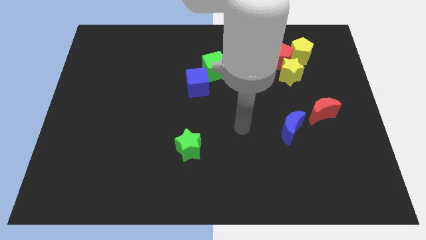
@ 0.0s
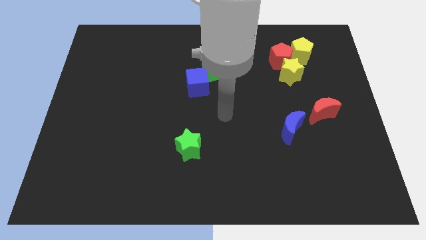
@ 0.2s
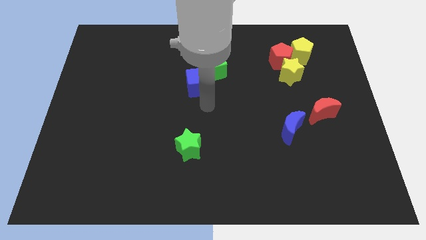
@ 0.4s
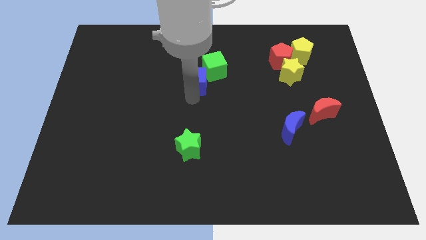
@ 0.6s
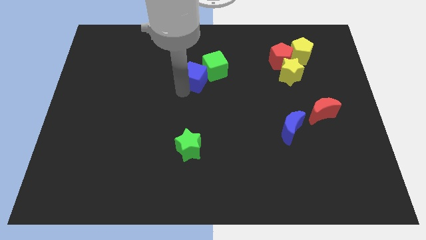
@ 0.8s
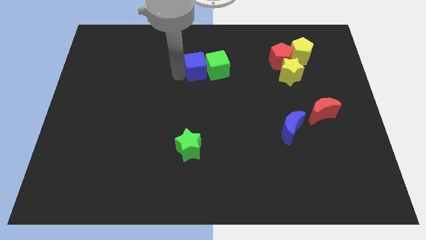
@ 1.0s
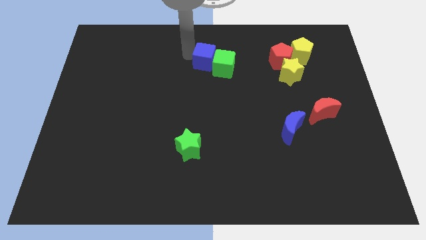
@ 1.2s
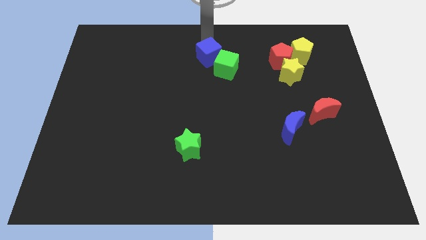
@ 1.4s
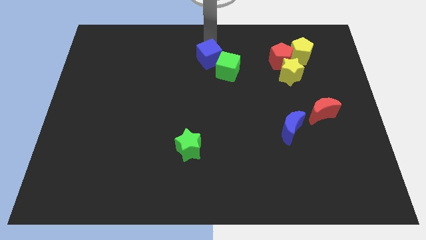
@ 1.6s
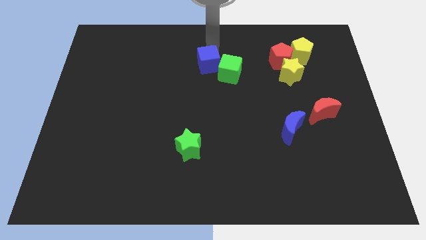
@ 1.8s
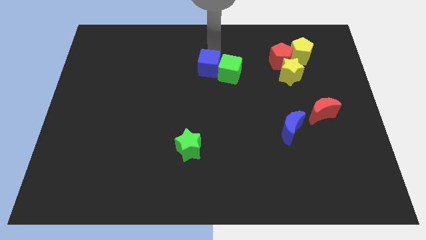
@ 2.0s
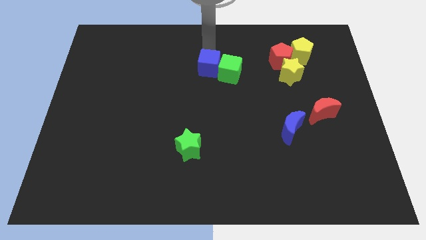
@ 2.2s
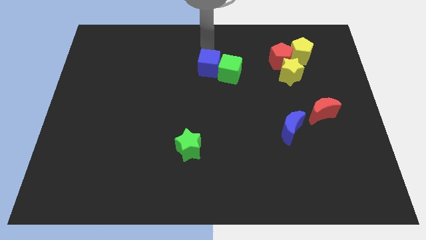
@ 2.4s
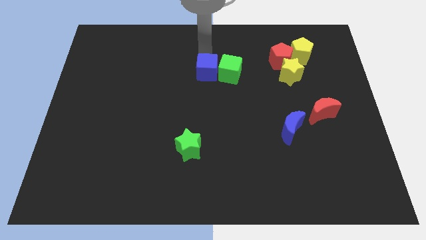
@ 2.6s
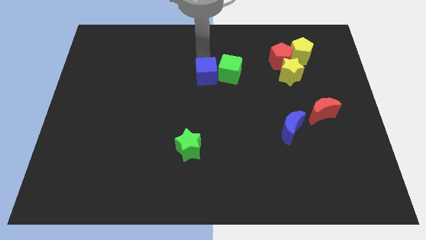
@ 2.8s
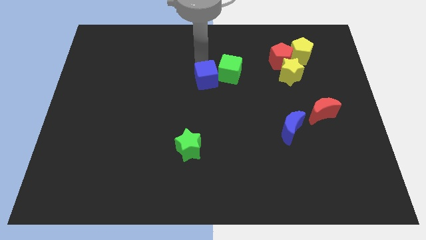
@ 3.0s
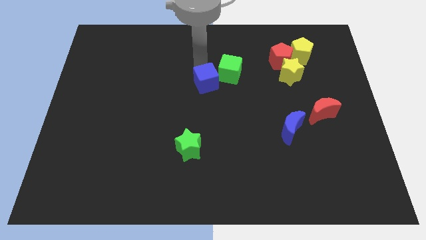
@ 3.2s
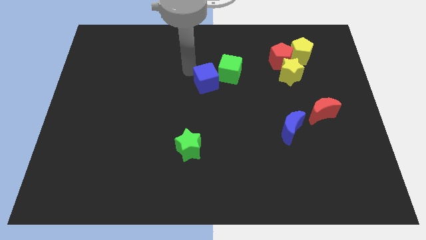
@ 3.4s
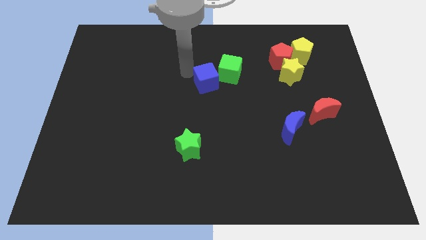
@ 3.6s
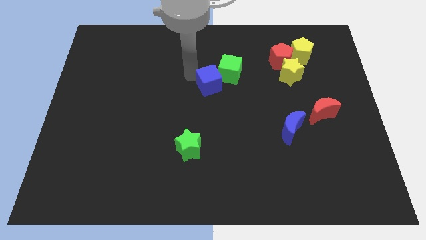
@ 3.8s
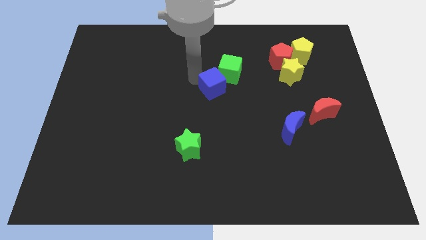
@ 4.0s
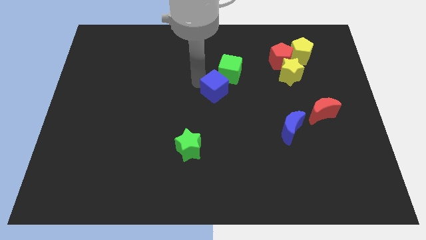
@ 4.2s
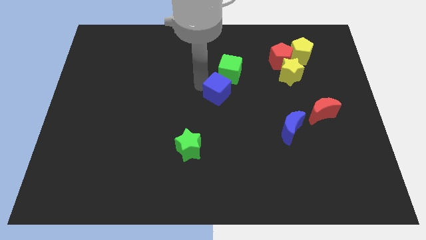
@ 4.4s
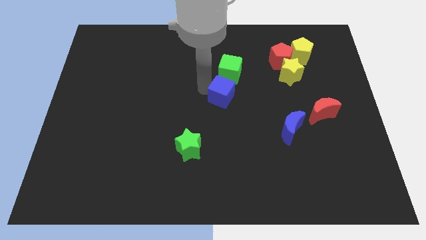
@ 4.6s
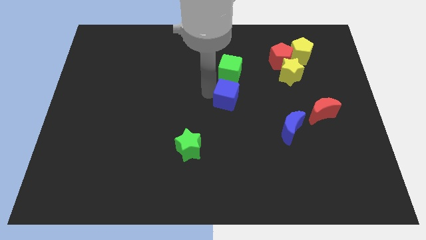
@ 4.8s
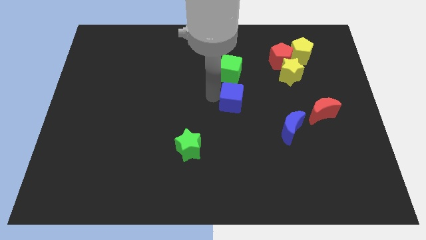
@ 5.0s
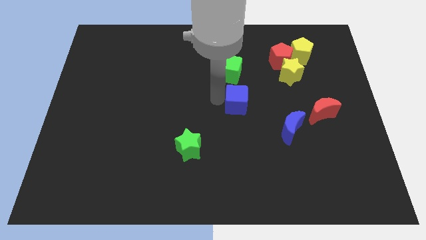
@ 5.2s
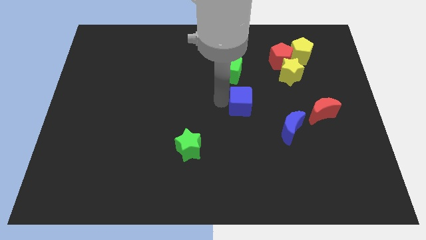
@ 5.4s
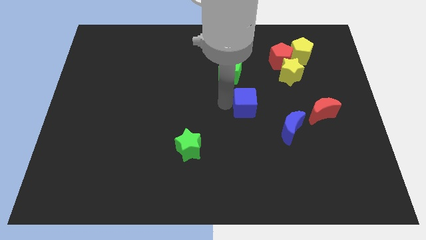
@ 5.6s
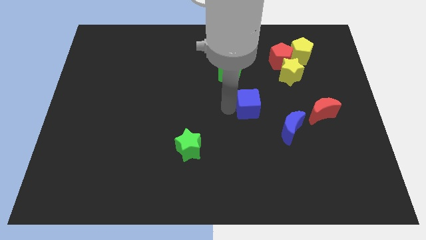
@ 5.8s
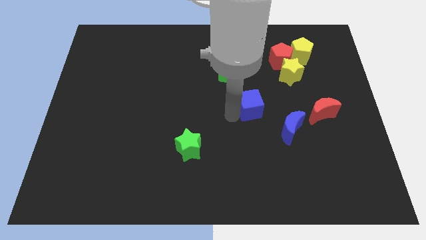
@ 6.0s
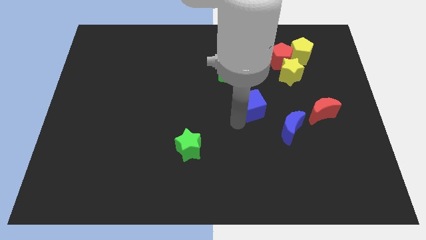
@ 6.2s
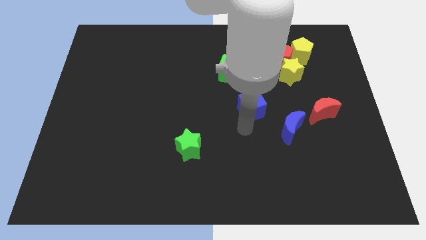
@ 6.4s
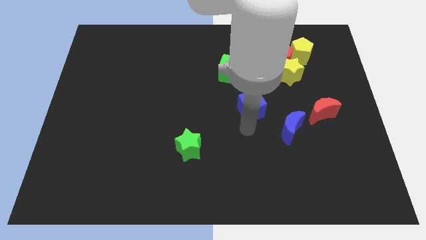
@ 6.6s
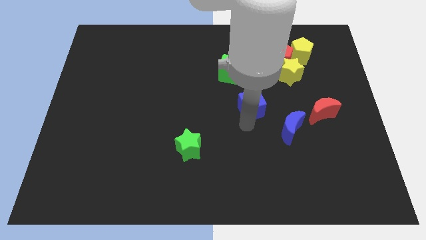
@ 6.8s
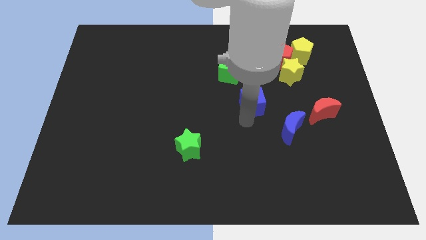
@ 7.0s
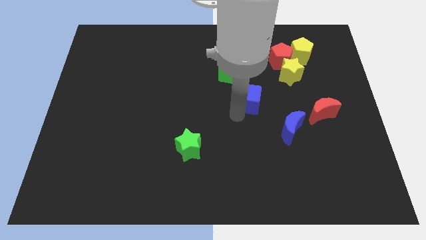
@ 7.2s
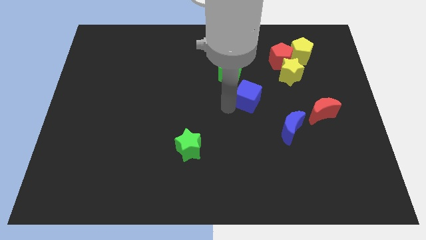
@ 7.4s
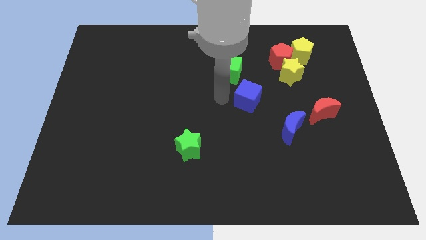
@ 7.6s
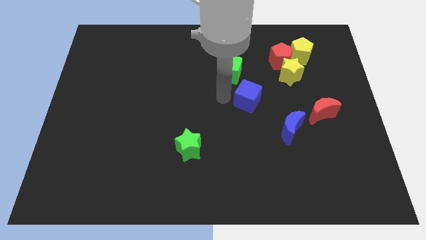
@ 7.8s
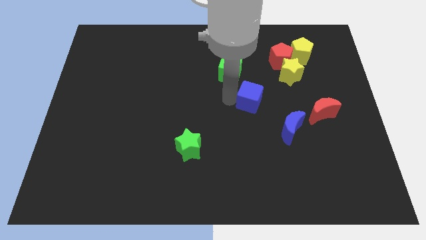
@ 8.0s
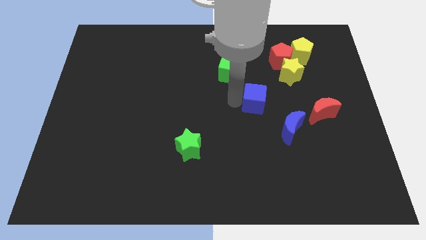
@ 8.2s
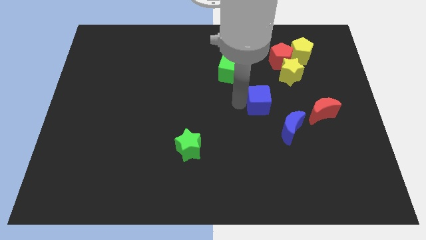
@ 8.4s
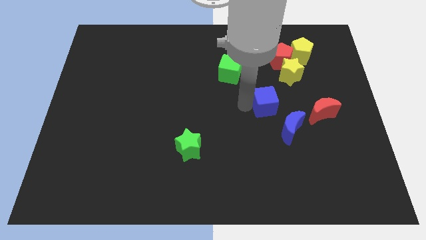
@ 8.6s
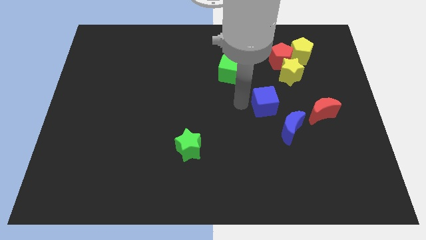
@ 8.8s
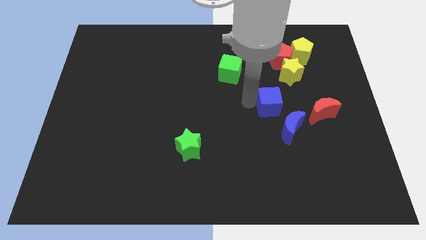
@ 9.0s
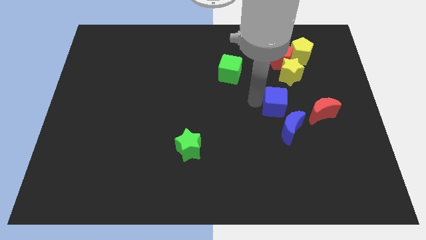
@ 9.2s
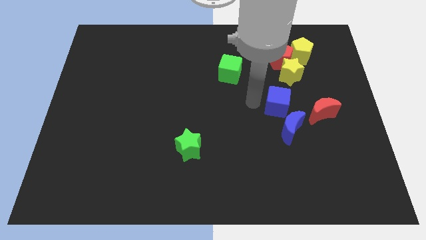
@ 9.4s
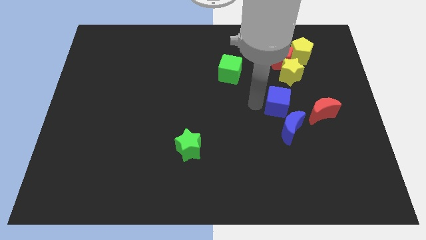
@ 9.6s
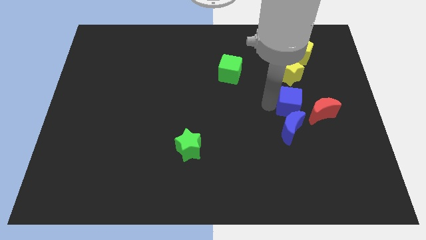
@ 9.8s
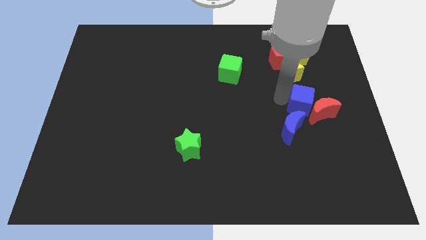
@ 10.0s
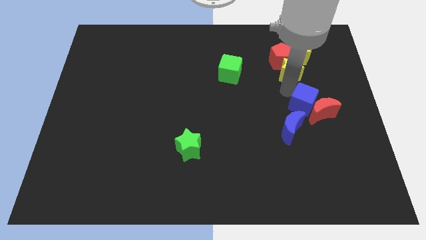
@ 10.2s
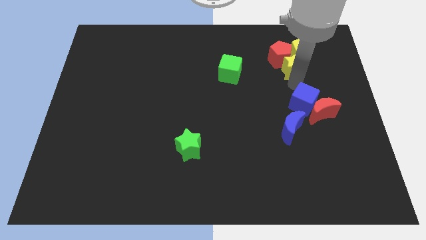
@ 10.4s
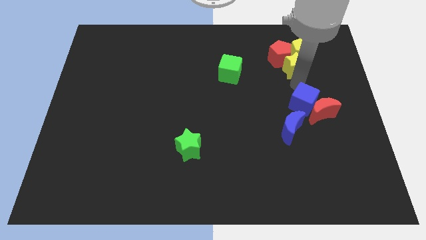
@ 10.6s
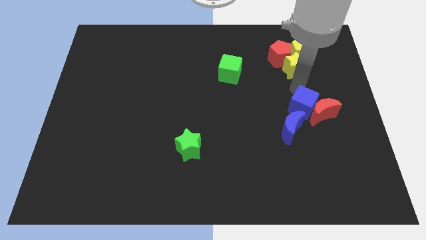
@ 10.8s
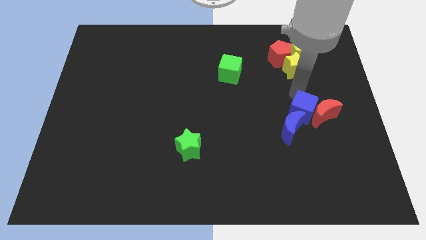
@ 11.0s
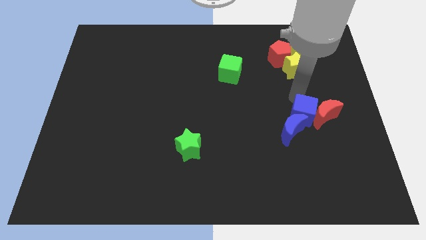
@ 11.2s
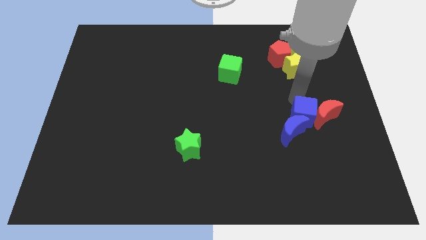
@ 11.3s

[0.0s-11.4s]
push the blue cube to the right side of the blue moon

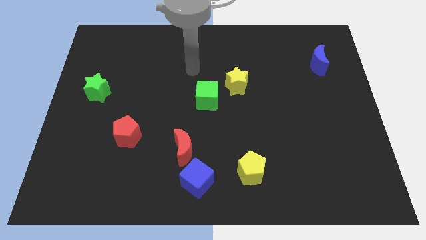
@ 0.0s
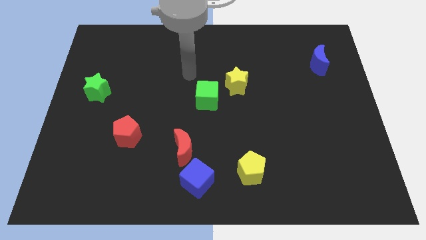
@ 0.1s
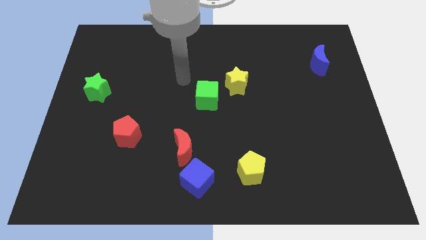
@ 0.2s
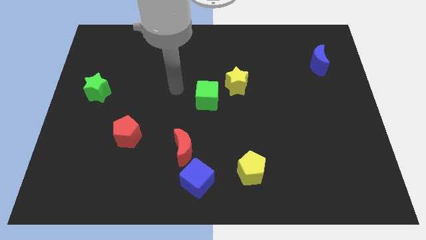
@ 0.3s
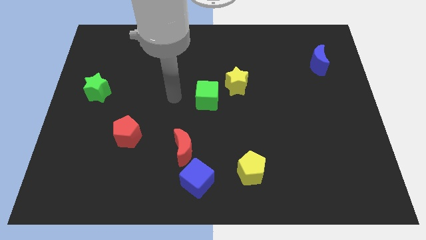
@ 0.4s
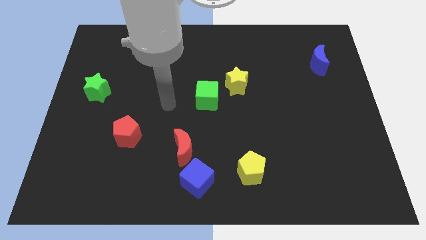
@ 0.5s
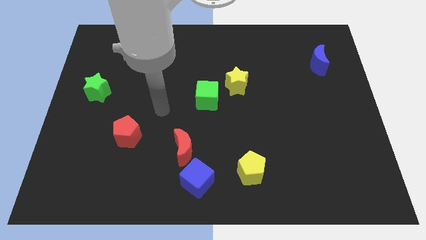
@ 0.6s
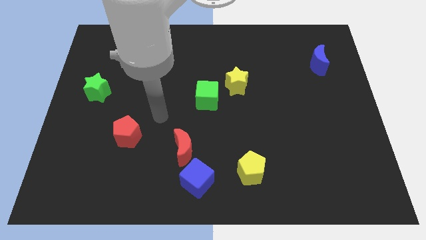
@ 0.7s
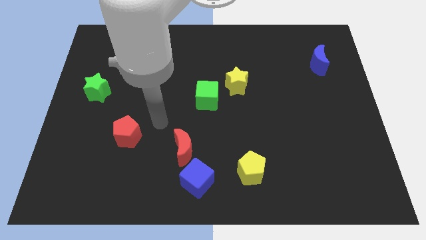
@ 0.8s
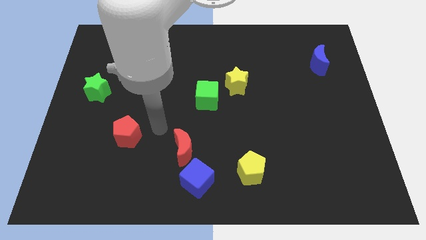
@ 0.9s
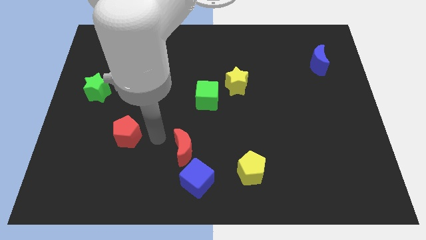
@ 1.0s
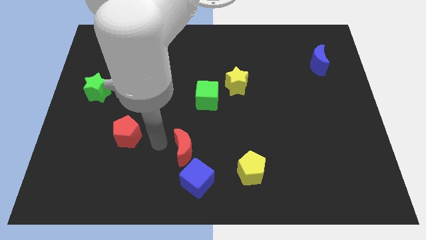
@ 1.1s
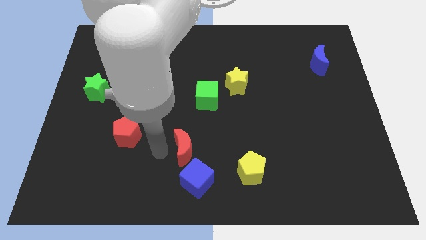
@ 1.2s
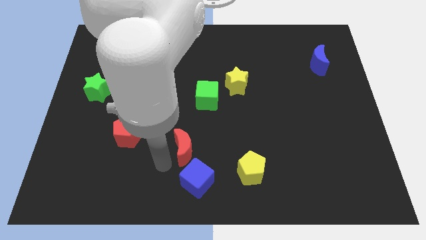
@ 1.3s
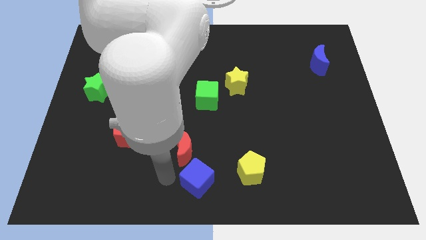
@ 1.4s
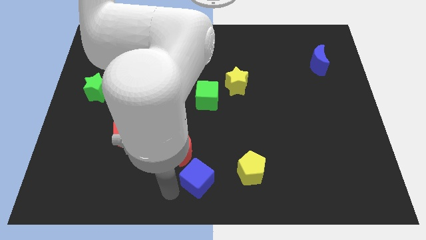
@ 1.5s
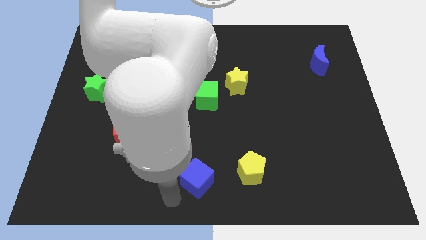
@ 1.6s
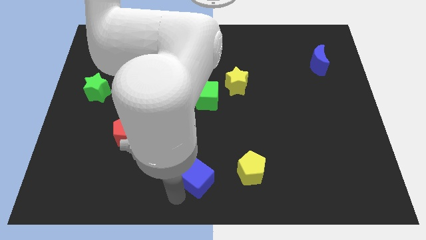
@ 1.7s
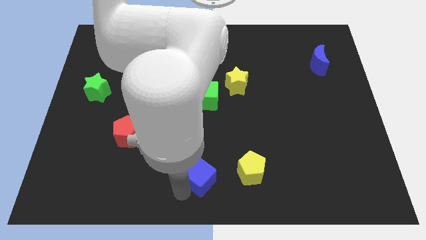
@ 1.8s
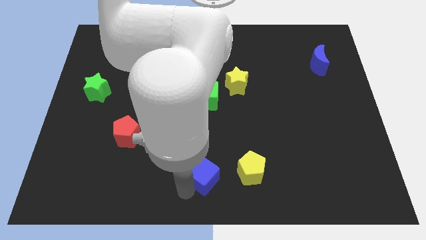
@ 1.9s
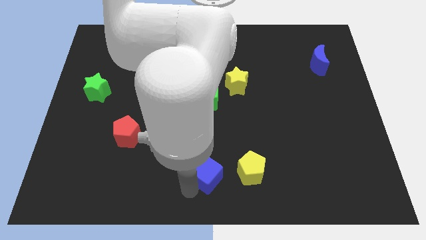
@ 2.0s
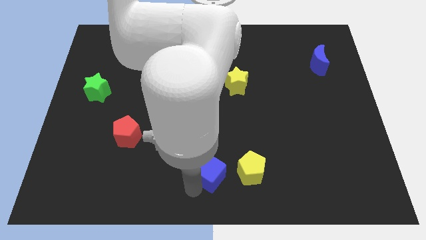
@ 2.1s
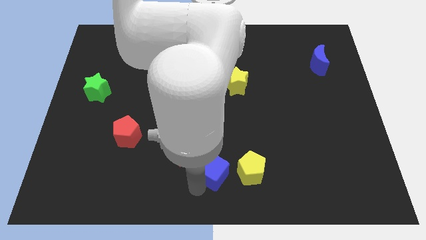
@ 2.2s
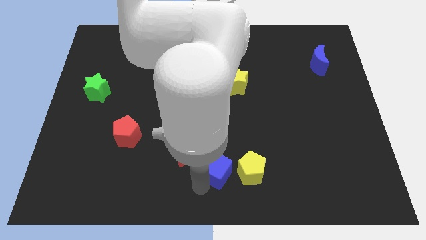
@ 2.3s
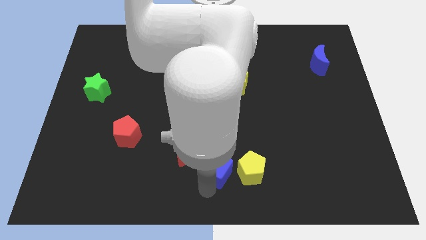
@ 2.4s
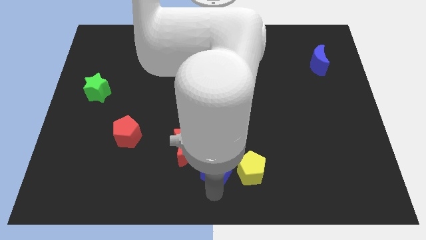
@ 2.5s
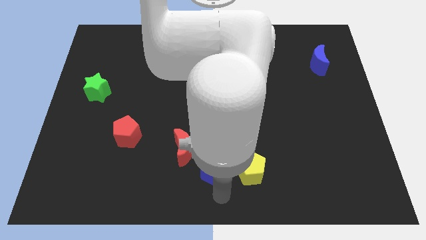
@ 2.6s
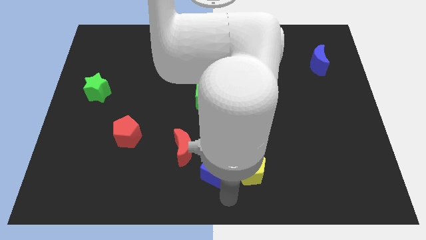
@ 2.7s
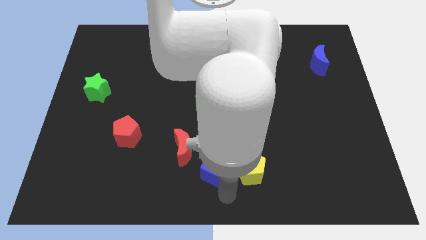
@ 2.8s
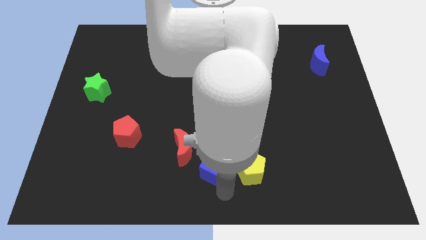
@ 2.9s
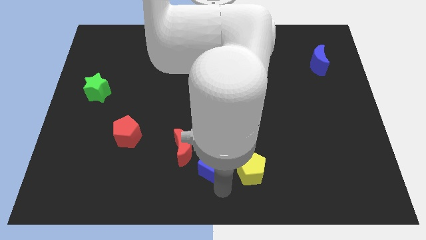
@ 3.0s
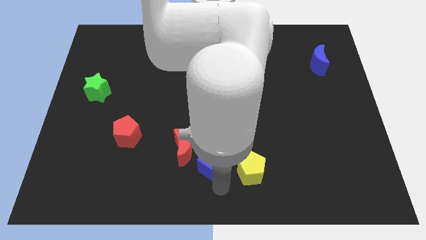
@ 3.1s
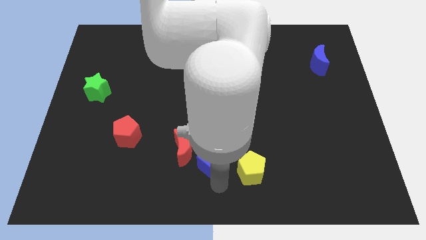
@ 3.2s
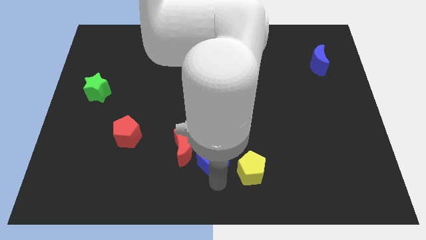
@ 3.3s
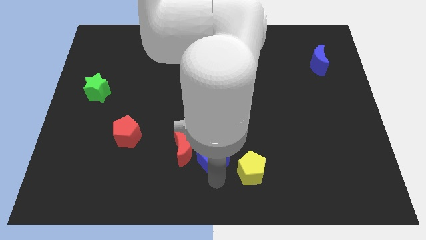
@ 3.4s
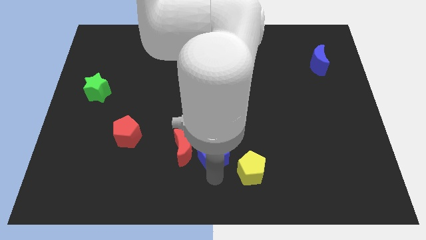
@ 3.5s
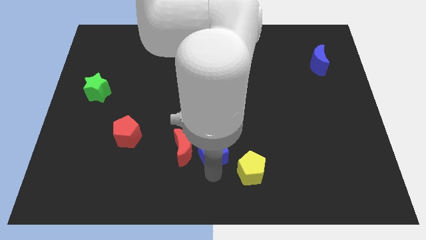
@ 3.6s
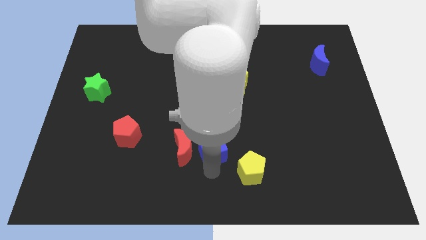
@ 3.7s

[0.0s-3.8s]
push the blue cube to the top right side of the red moon
